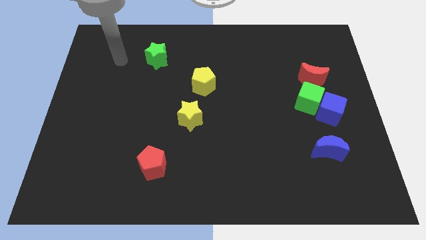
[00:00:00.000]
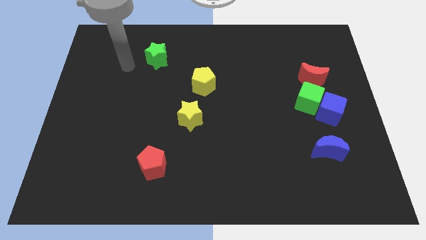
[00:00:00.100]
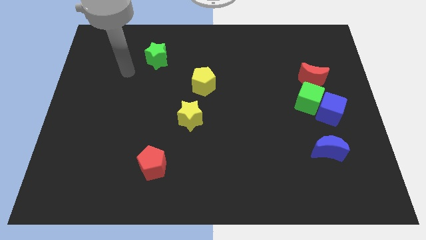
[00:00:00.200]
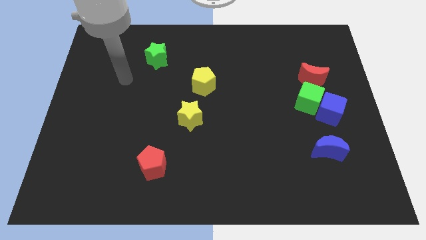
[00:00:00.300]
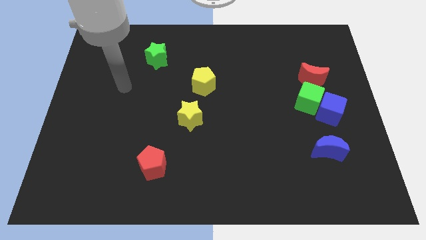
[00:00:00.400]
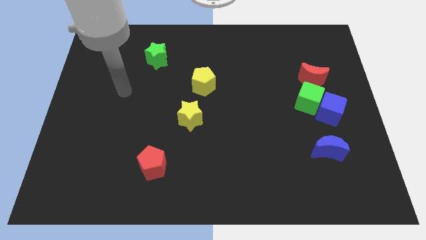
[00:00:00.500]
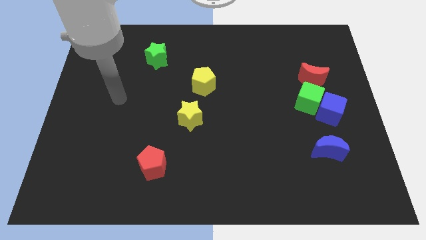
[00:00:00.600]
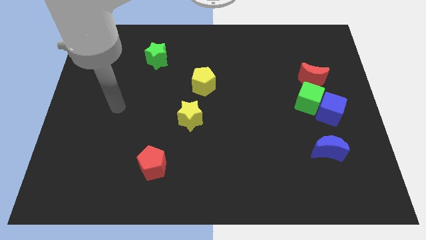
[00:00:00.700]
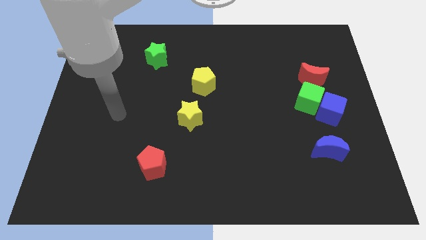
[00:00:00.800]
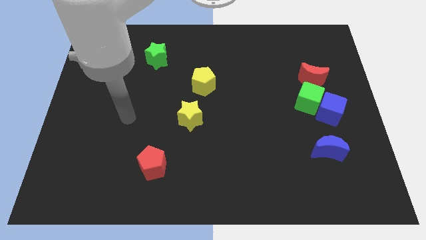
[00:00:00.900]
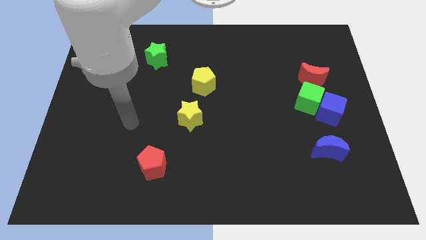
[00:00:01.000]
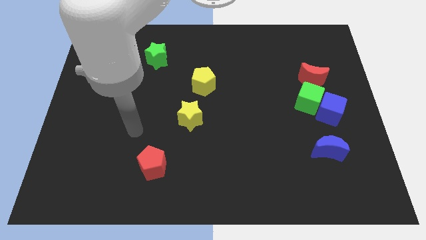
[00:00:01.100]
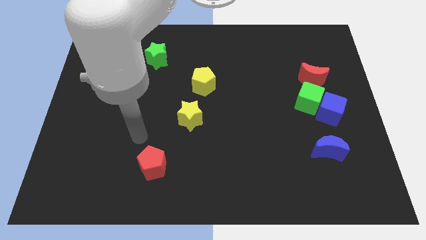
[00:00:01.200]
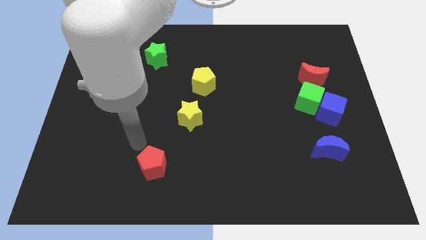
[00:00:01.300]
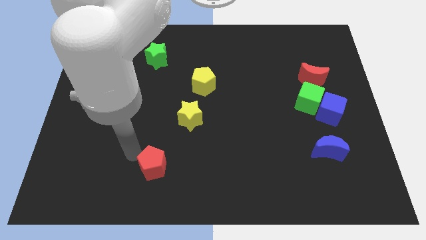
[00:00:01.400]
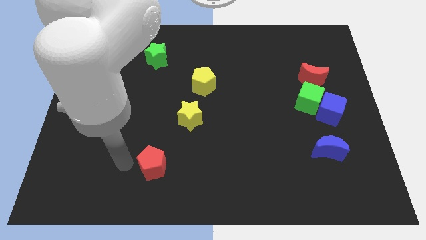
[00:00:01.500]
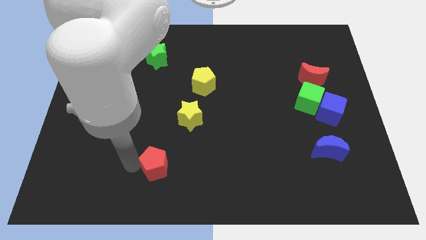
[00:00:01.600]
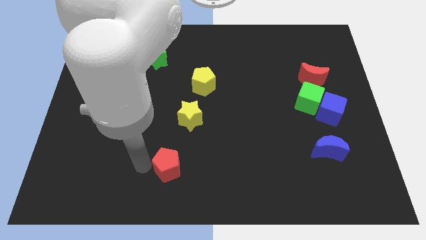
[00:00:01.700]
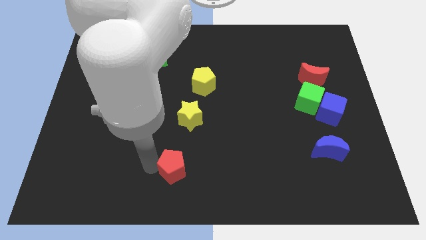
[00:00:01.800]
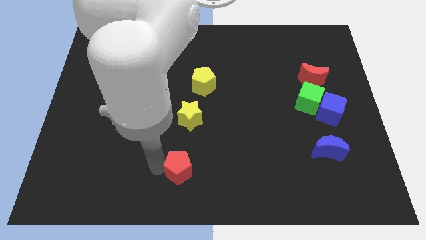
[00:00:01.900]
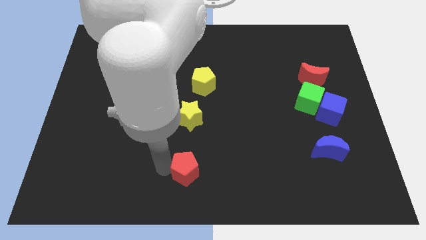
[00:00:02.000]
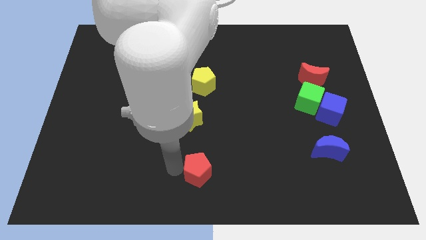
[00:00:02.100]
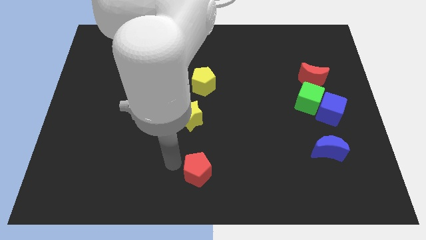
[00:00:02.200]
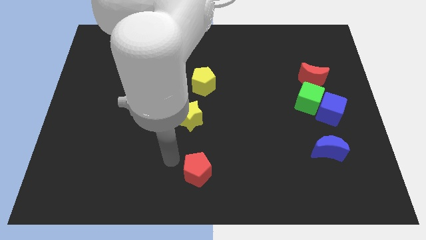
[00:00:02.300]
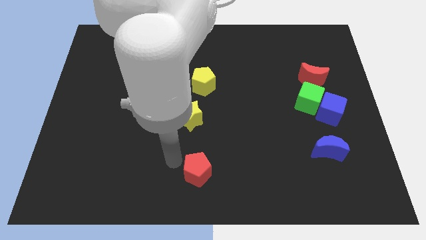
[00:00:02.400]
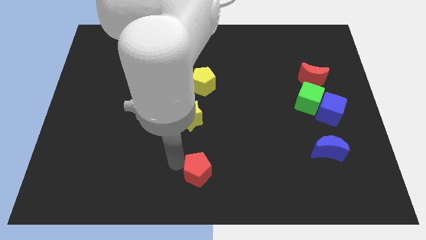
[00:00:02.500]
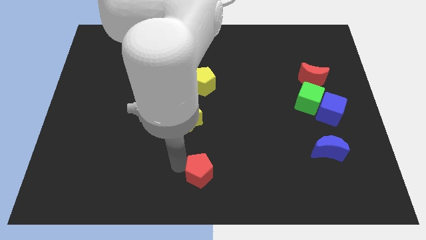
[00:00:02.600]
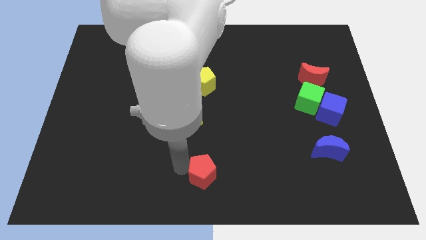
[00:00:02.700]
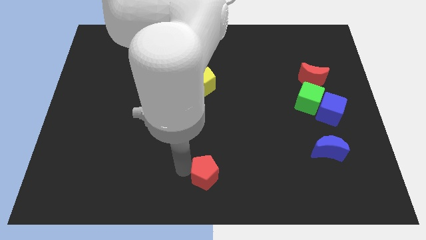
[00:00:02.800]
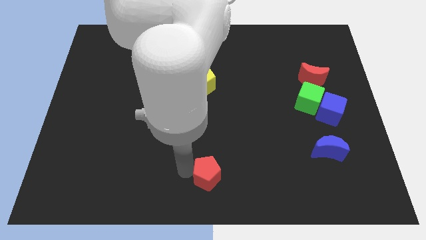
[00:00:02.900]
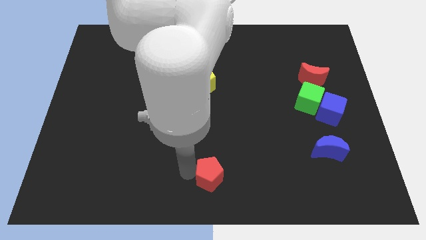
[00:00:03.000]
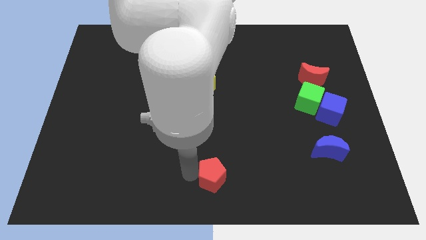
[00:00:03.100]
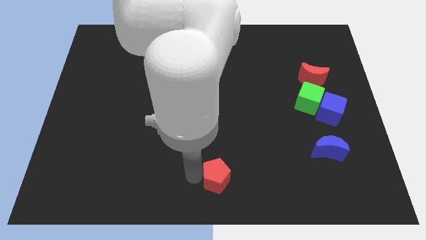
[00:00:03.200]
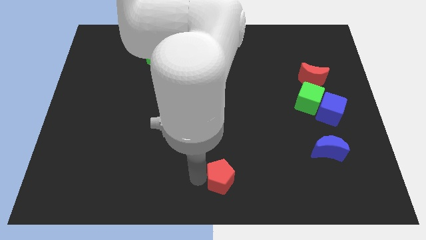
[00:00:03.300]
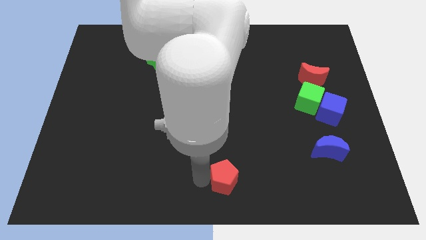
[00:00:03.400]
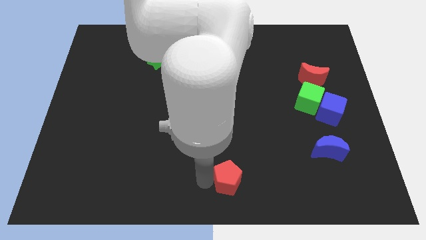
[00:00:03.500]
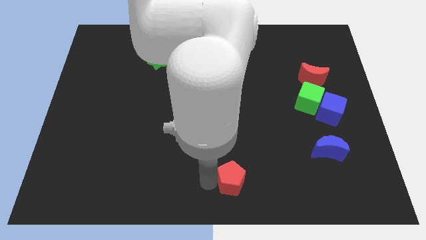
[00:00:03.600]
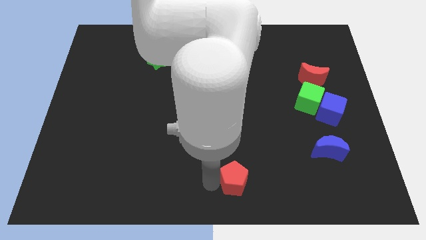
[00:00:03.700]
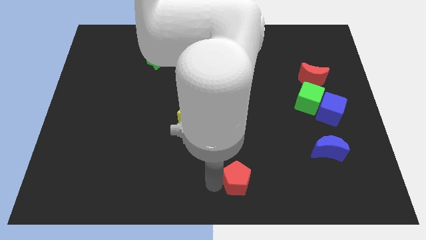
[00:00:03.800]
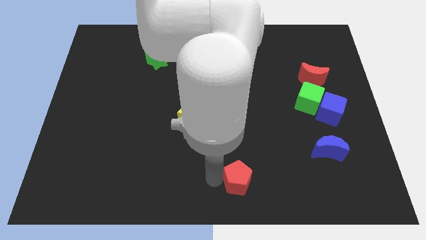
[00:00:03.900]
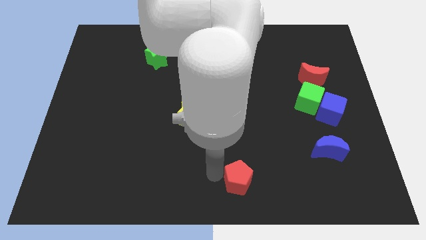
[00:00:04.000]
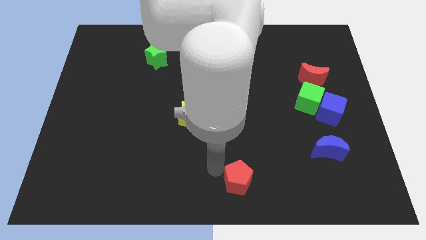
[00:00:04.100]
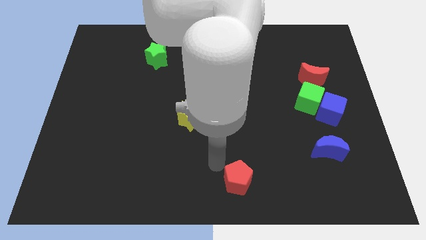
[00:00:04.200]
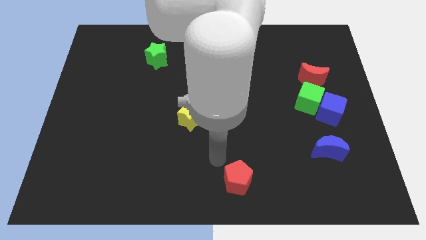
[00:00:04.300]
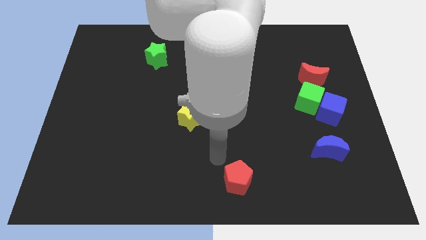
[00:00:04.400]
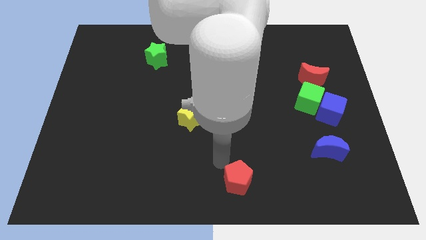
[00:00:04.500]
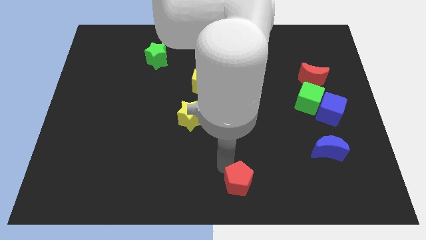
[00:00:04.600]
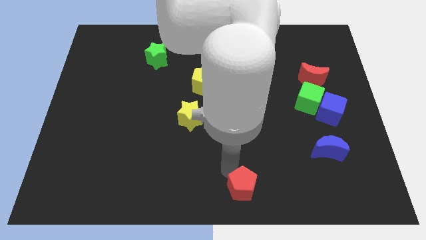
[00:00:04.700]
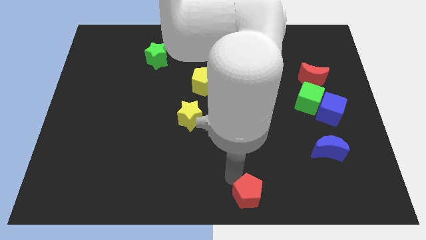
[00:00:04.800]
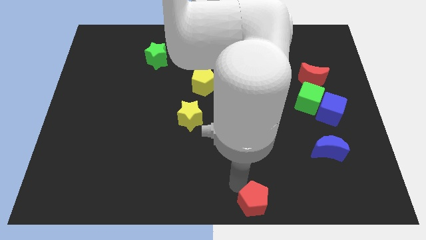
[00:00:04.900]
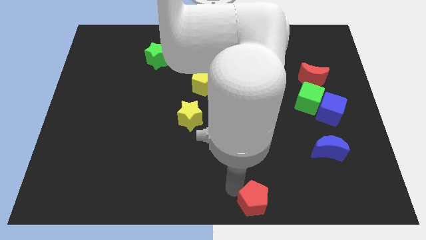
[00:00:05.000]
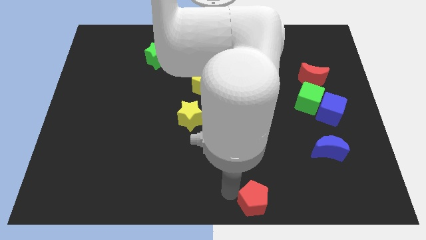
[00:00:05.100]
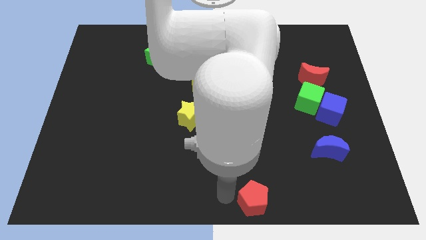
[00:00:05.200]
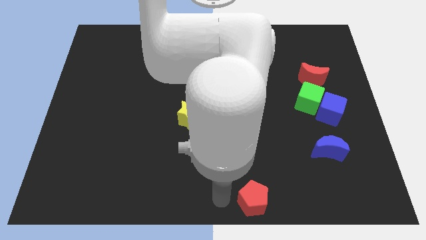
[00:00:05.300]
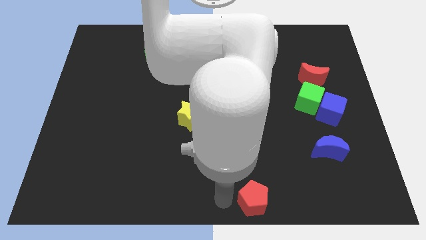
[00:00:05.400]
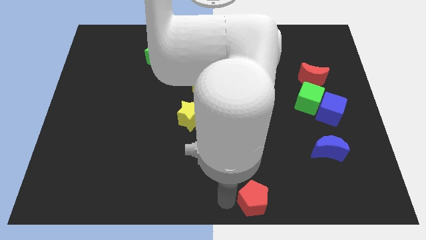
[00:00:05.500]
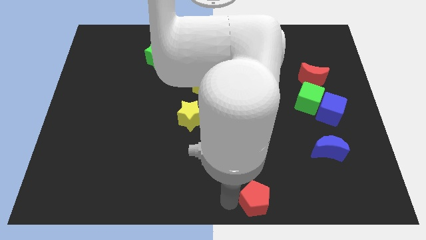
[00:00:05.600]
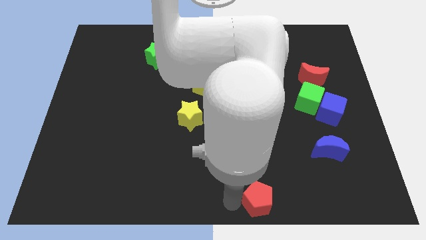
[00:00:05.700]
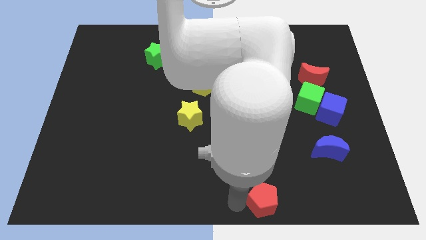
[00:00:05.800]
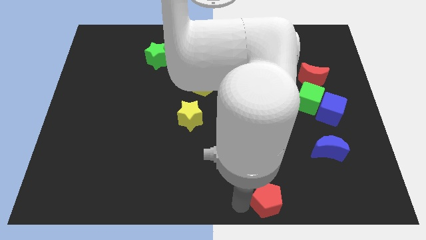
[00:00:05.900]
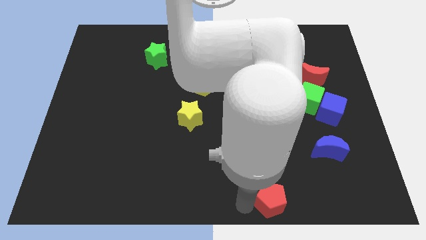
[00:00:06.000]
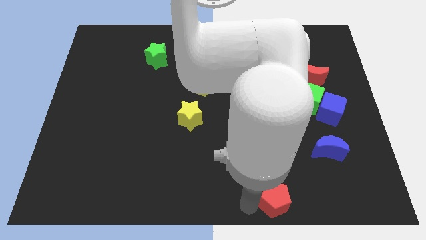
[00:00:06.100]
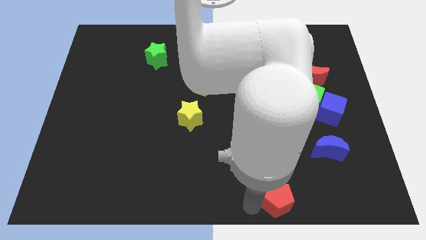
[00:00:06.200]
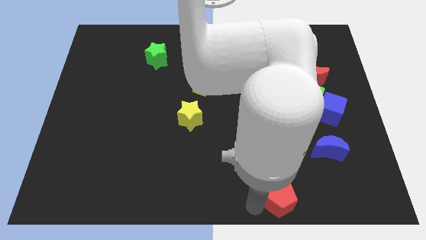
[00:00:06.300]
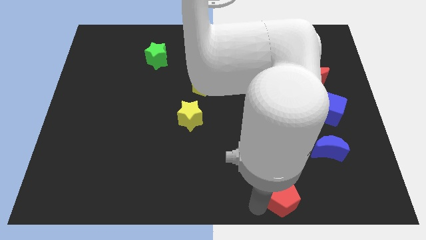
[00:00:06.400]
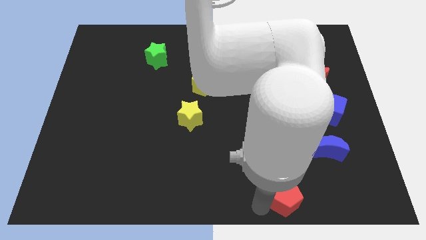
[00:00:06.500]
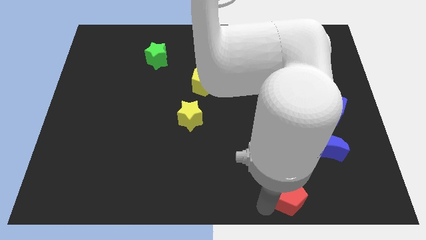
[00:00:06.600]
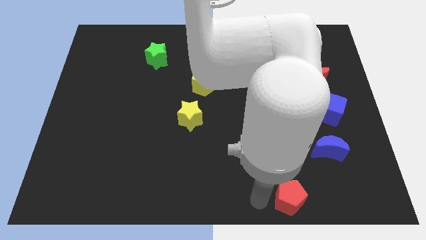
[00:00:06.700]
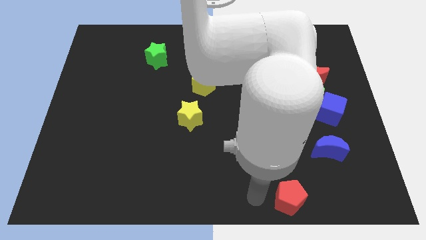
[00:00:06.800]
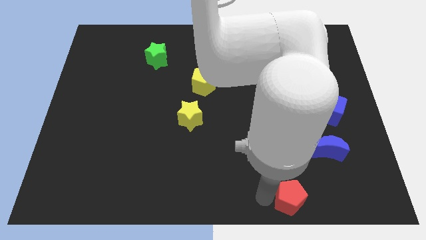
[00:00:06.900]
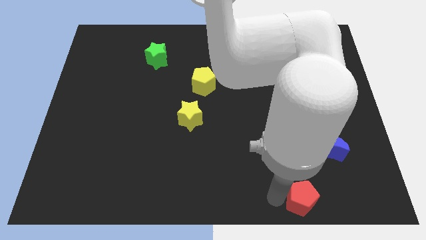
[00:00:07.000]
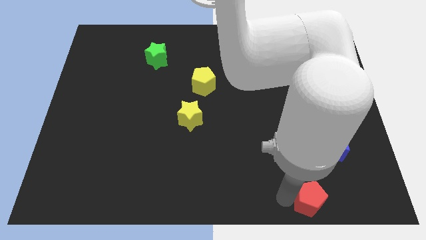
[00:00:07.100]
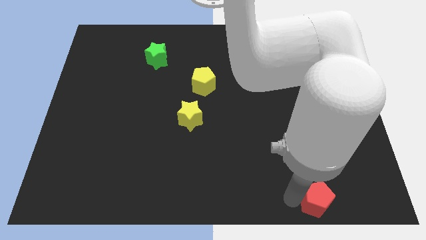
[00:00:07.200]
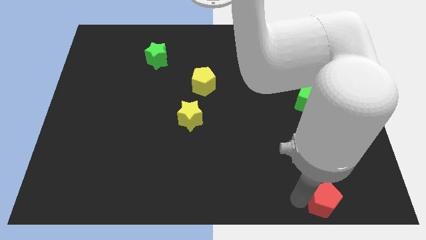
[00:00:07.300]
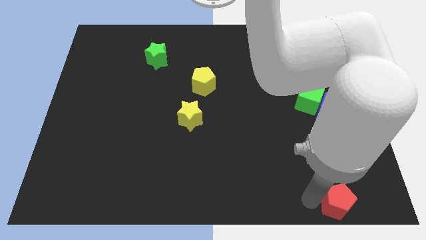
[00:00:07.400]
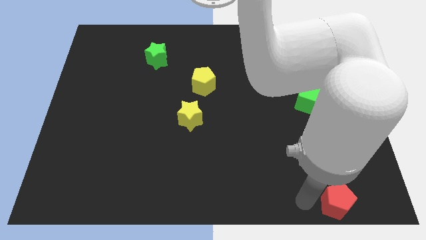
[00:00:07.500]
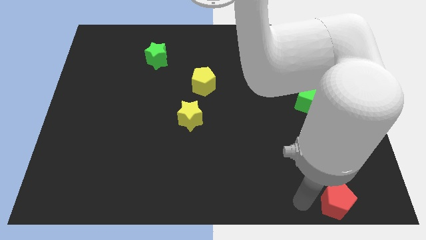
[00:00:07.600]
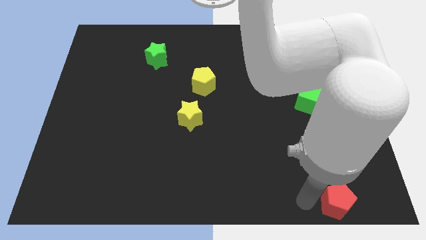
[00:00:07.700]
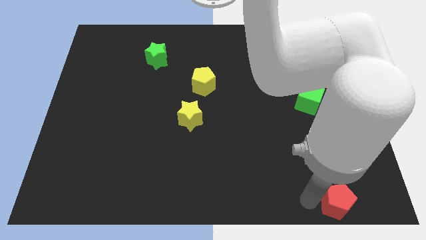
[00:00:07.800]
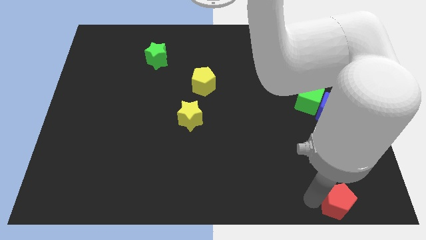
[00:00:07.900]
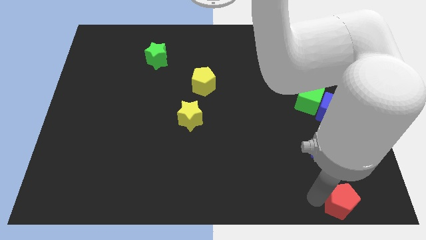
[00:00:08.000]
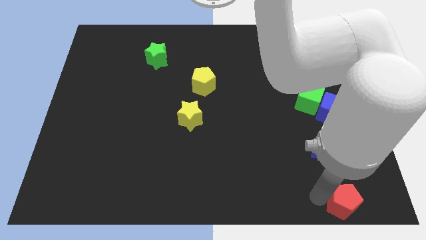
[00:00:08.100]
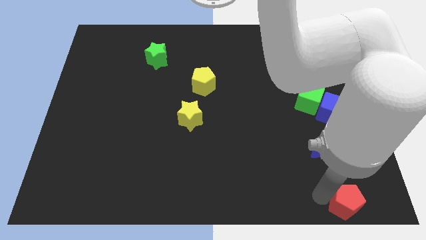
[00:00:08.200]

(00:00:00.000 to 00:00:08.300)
slide the red pentagon to the lower right corner
